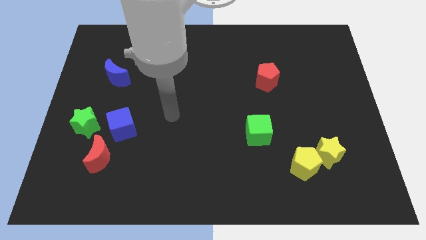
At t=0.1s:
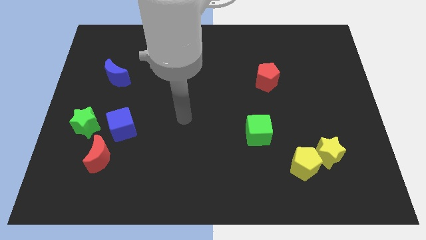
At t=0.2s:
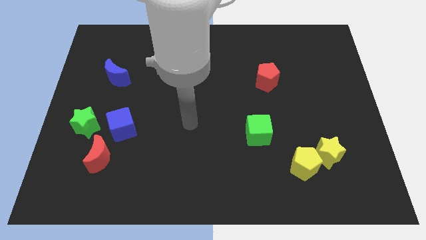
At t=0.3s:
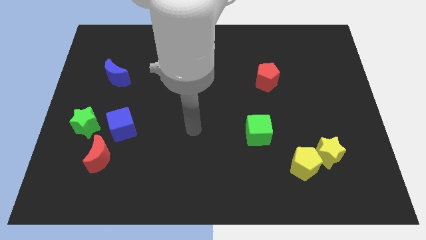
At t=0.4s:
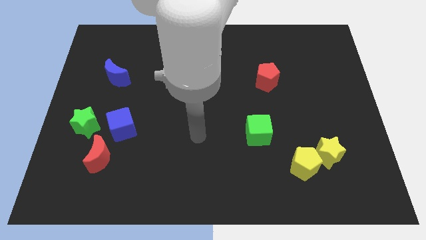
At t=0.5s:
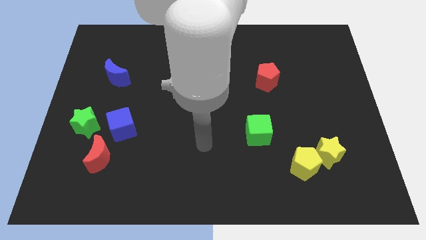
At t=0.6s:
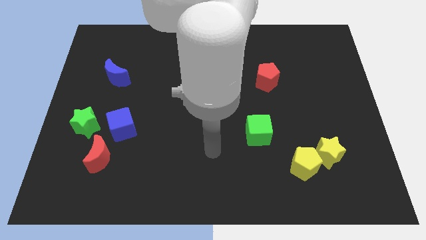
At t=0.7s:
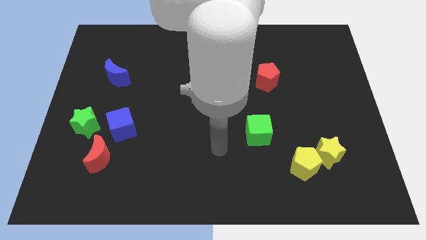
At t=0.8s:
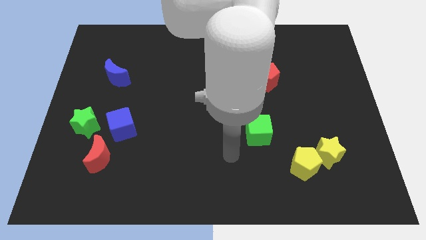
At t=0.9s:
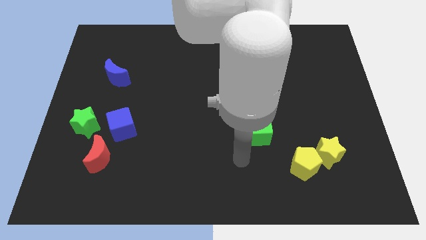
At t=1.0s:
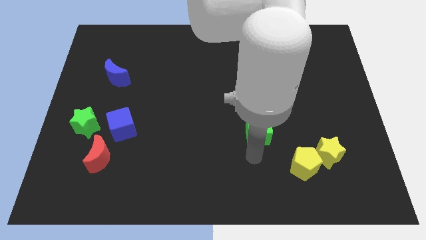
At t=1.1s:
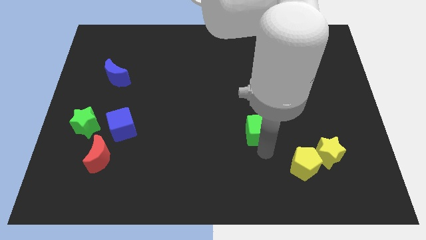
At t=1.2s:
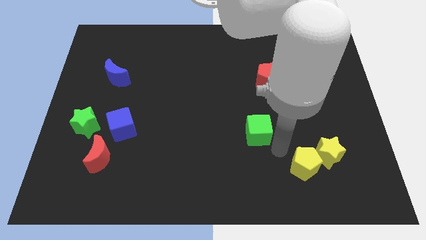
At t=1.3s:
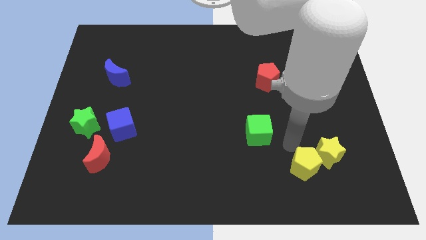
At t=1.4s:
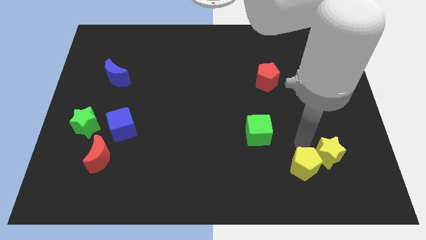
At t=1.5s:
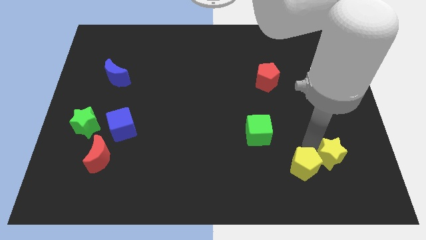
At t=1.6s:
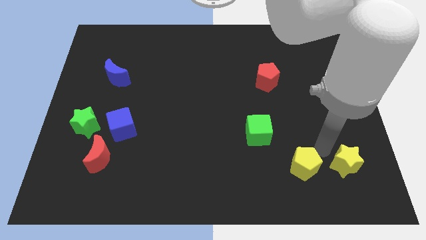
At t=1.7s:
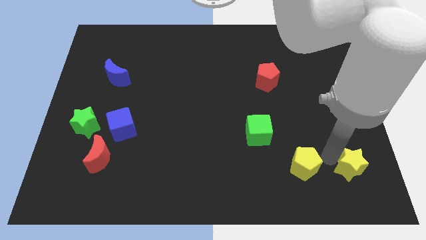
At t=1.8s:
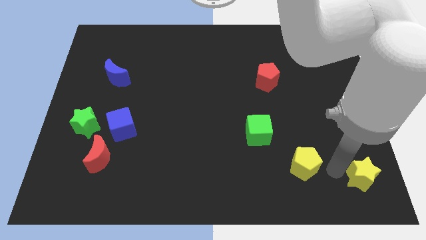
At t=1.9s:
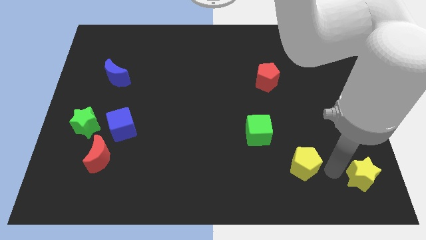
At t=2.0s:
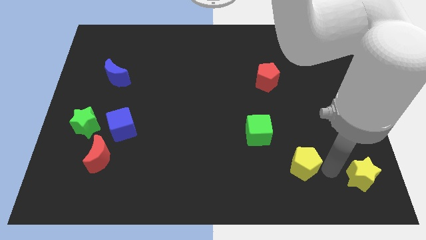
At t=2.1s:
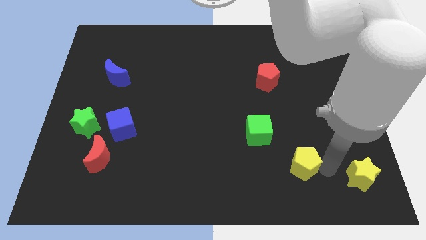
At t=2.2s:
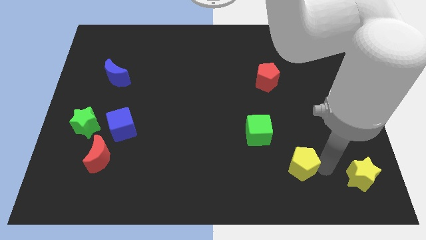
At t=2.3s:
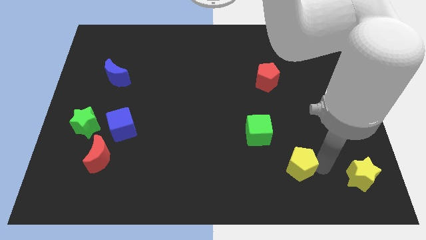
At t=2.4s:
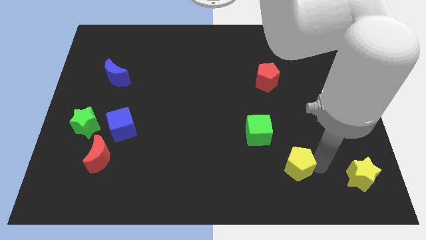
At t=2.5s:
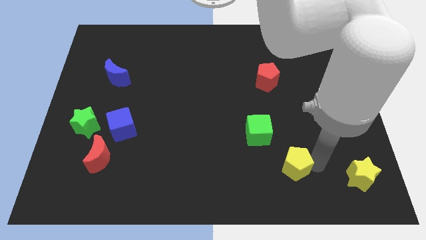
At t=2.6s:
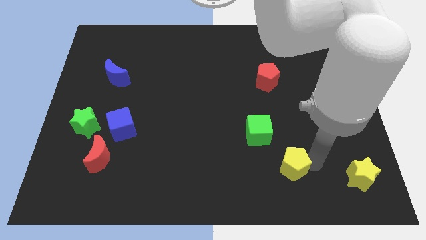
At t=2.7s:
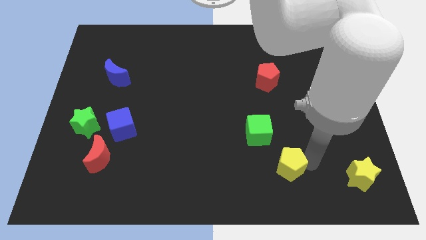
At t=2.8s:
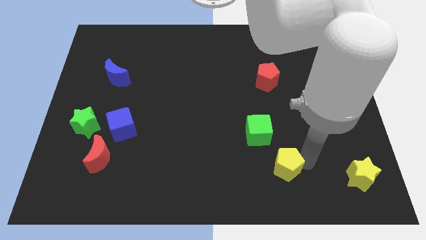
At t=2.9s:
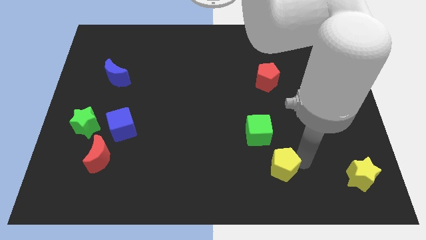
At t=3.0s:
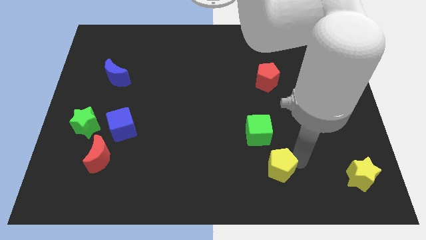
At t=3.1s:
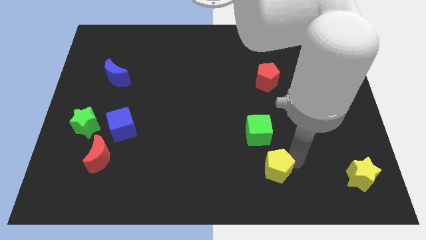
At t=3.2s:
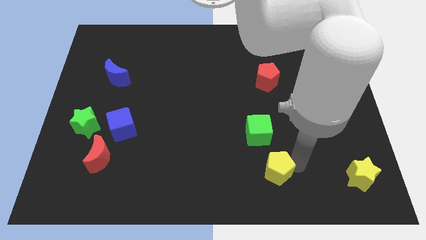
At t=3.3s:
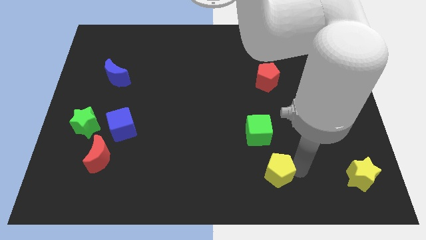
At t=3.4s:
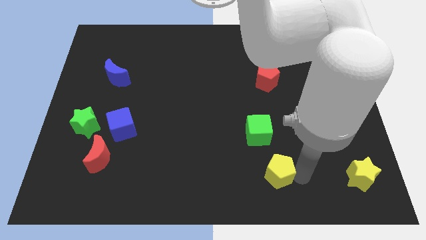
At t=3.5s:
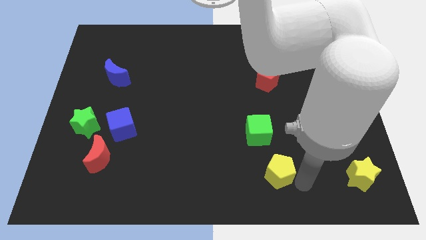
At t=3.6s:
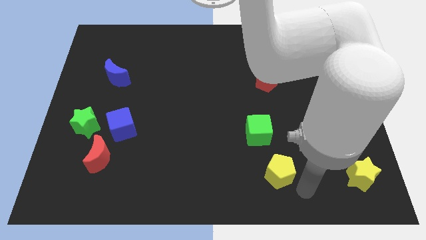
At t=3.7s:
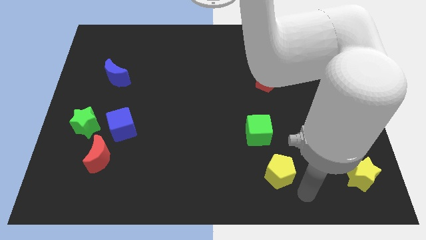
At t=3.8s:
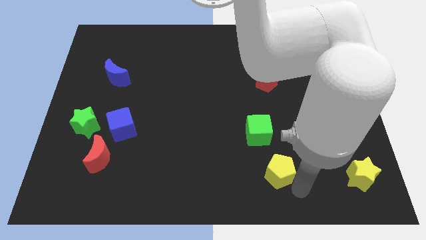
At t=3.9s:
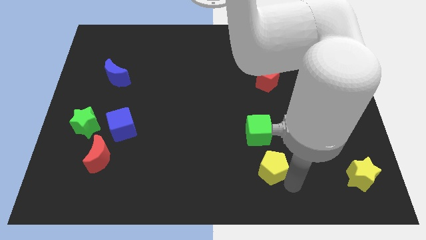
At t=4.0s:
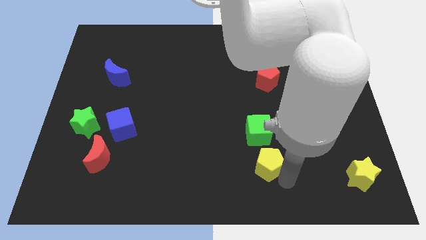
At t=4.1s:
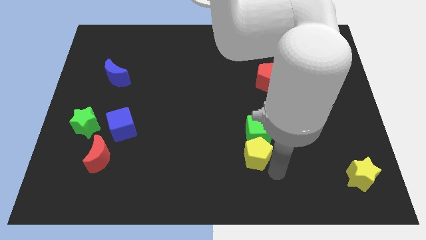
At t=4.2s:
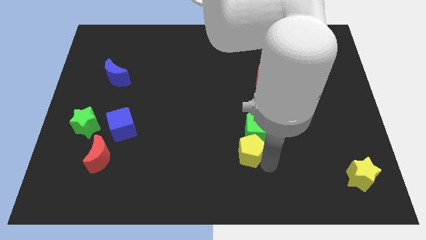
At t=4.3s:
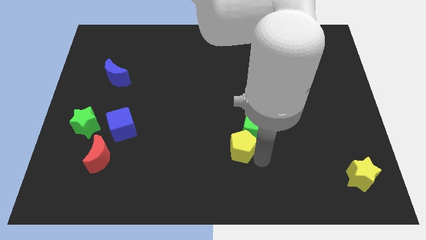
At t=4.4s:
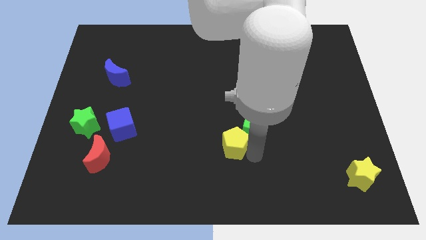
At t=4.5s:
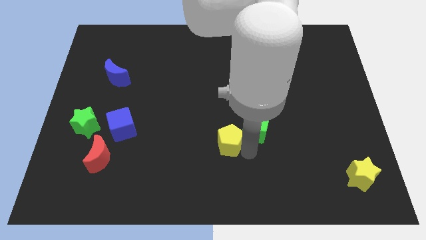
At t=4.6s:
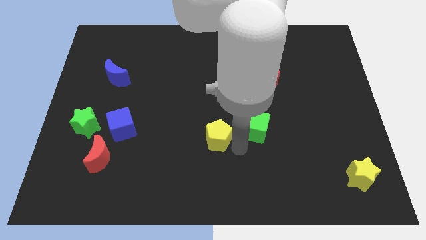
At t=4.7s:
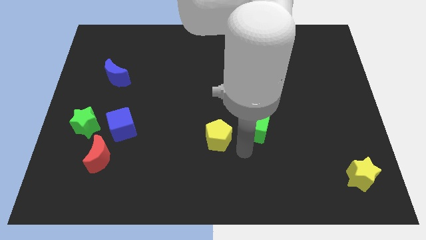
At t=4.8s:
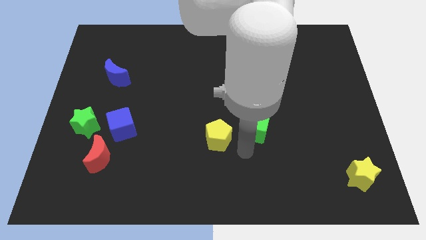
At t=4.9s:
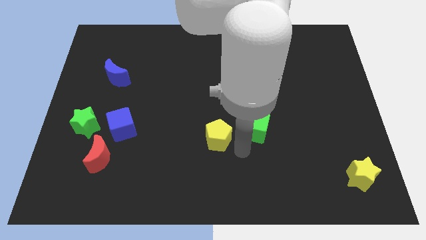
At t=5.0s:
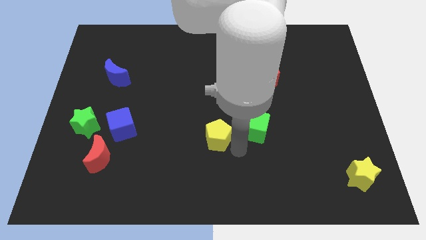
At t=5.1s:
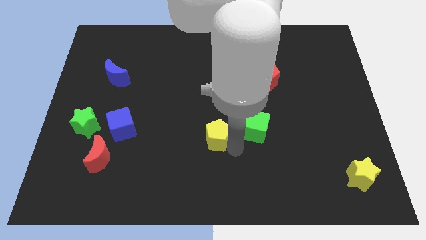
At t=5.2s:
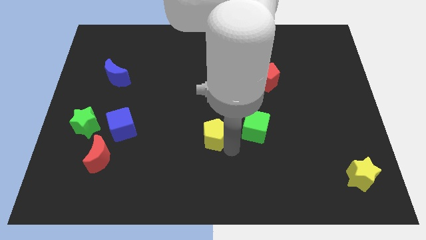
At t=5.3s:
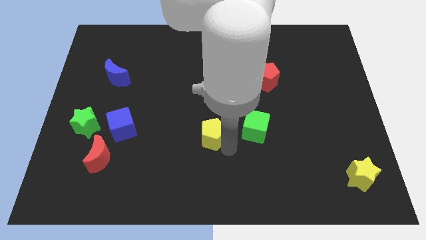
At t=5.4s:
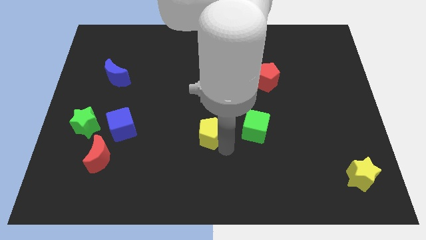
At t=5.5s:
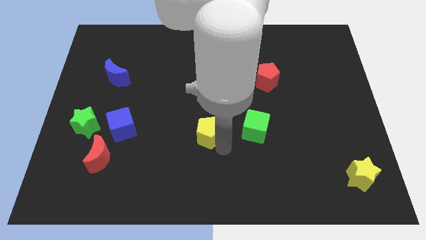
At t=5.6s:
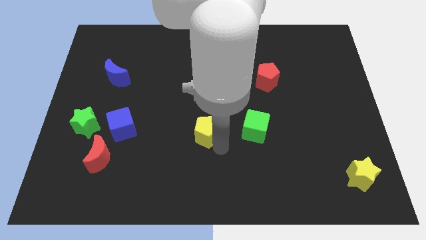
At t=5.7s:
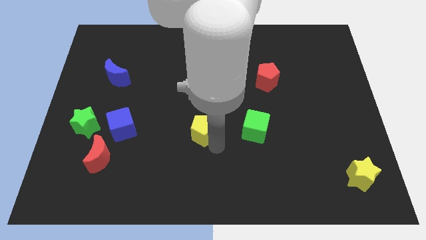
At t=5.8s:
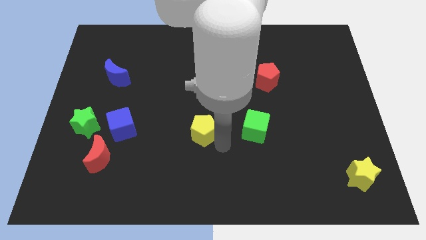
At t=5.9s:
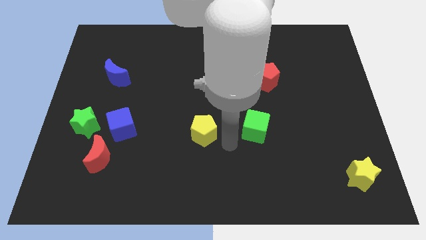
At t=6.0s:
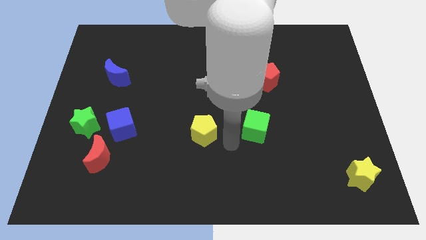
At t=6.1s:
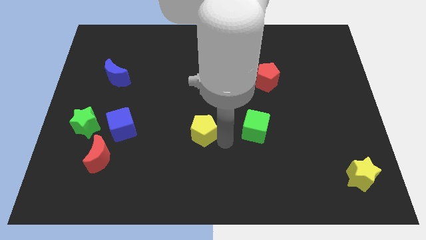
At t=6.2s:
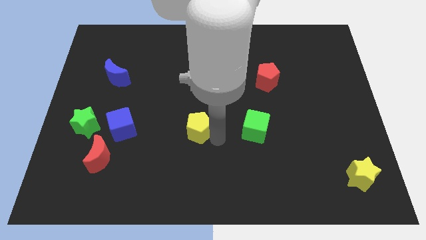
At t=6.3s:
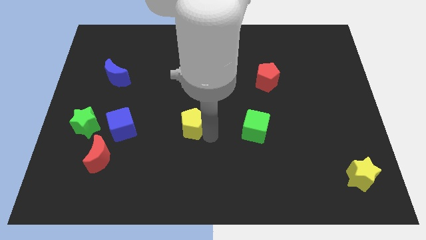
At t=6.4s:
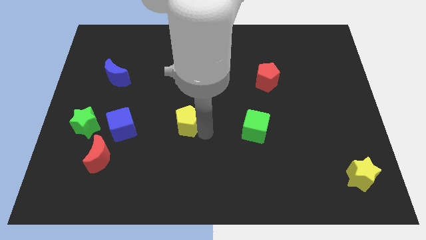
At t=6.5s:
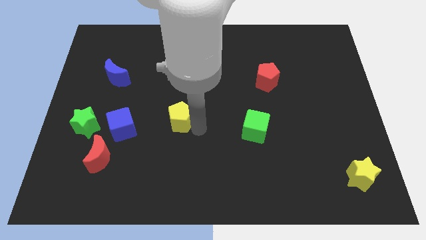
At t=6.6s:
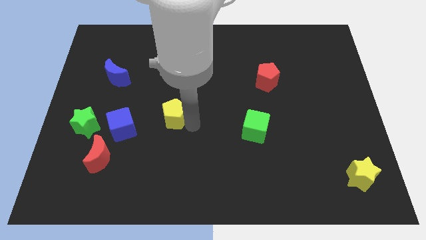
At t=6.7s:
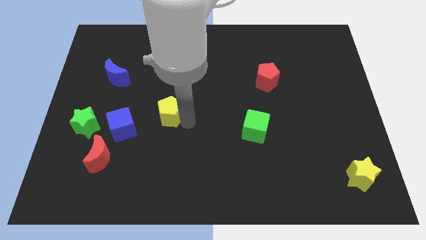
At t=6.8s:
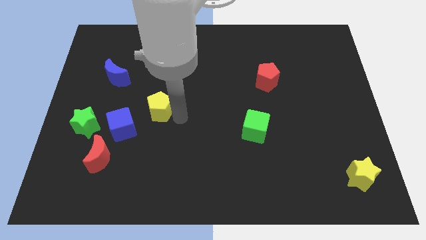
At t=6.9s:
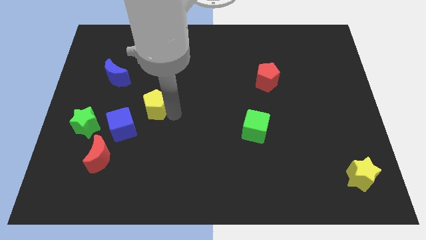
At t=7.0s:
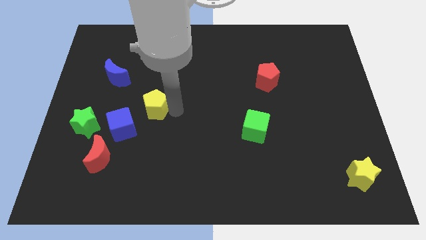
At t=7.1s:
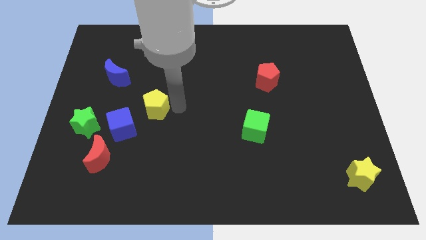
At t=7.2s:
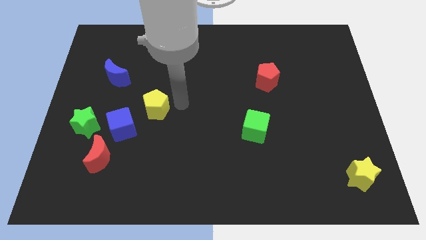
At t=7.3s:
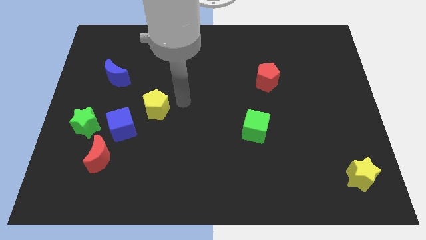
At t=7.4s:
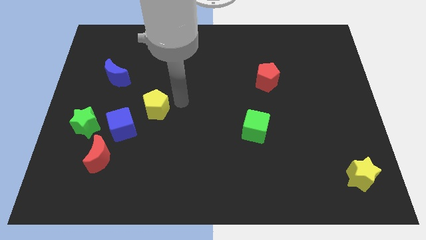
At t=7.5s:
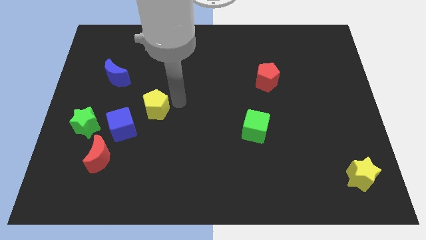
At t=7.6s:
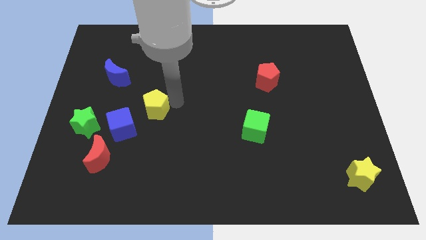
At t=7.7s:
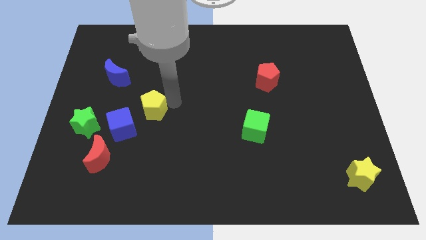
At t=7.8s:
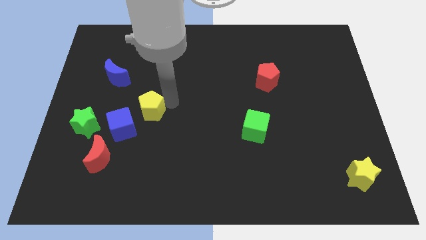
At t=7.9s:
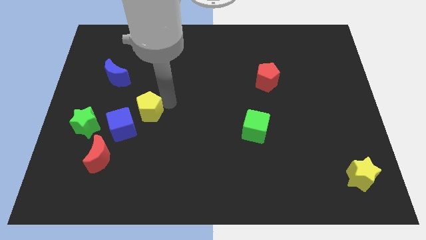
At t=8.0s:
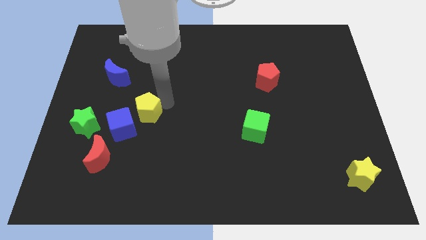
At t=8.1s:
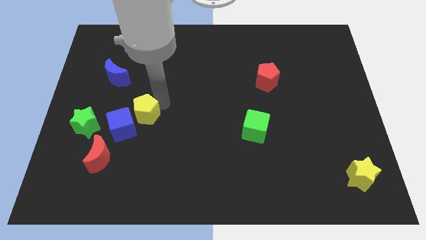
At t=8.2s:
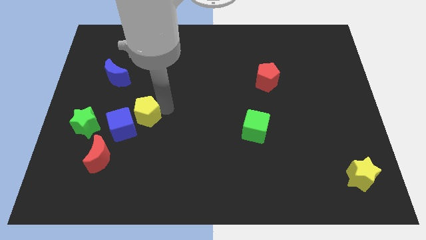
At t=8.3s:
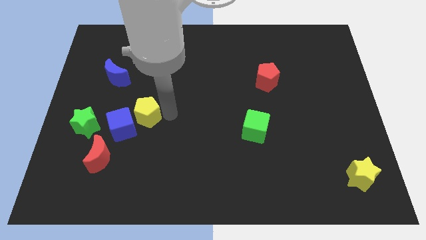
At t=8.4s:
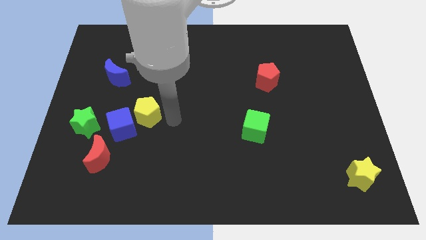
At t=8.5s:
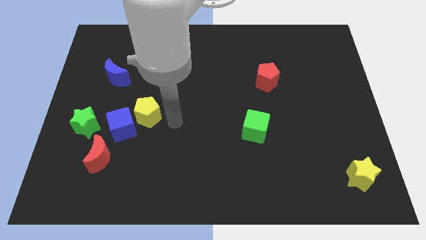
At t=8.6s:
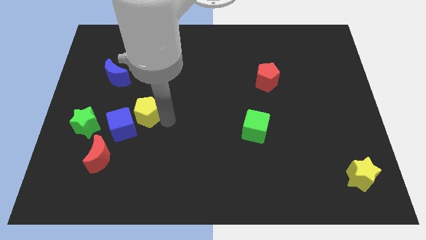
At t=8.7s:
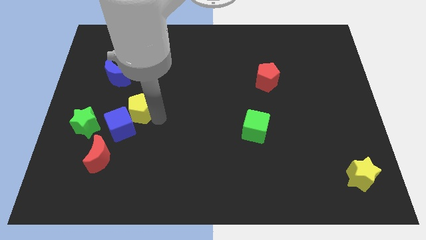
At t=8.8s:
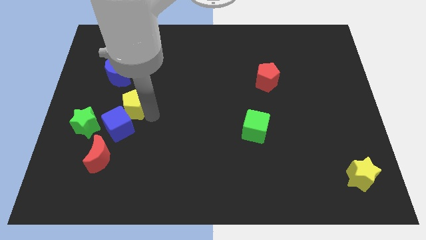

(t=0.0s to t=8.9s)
move the yellow pentagon diagonally up and to the right of the green star
